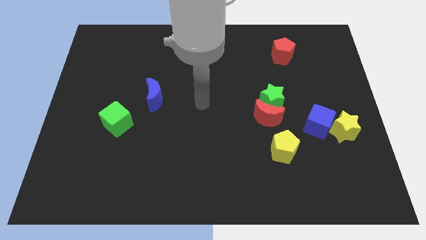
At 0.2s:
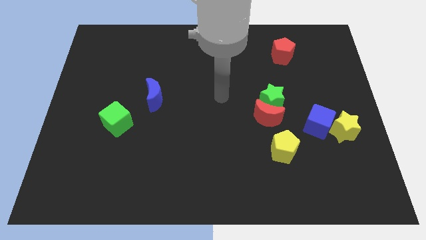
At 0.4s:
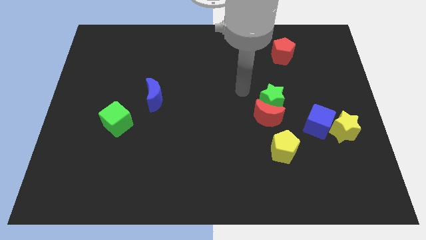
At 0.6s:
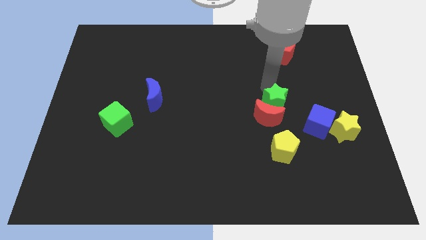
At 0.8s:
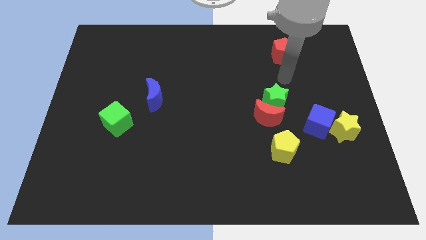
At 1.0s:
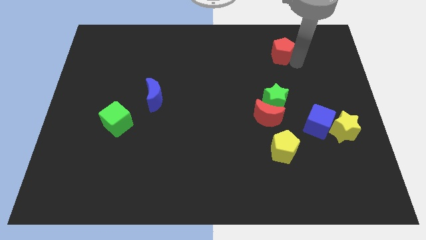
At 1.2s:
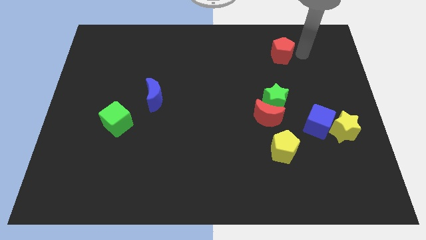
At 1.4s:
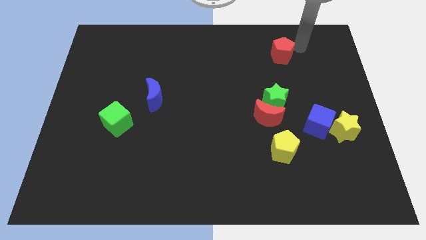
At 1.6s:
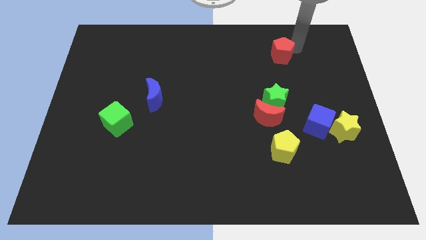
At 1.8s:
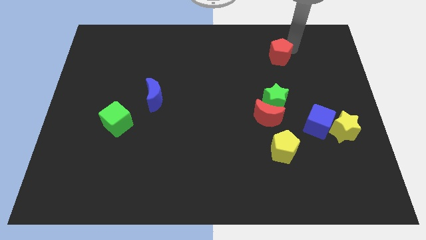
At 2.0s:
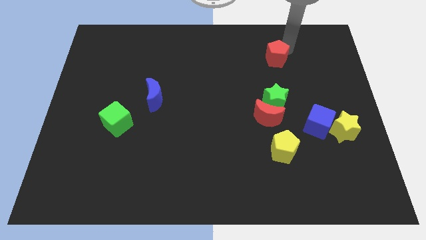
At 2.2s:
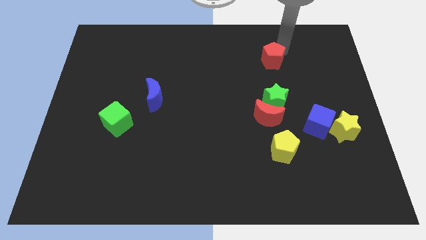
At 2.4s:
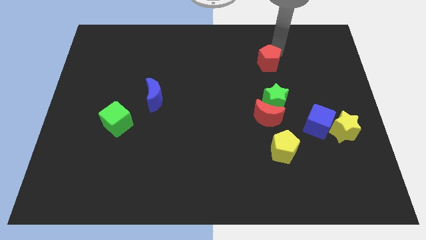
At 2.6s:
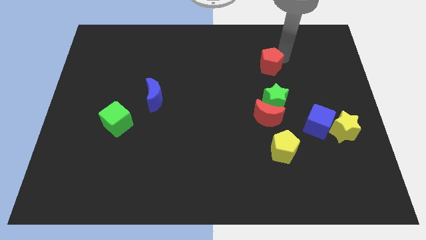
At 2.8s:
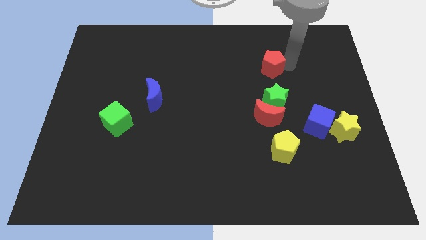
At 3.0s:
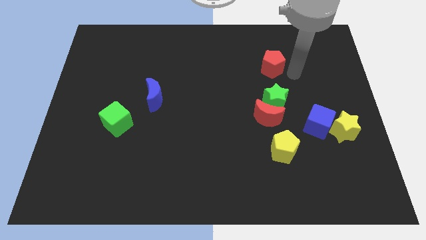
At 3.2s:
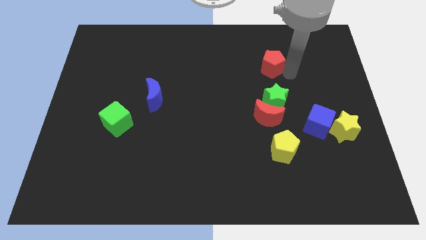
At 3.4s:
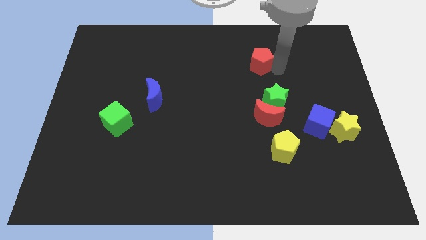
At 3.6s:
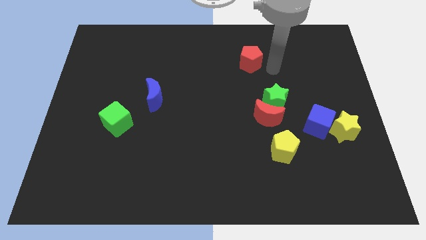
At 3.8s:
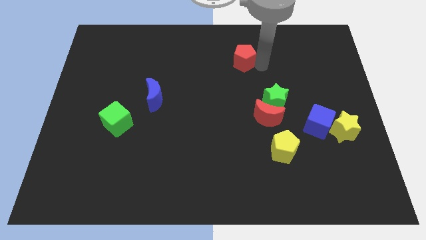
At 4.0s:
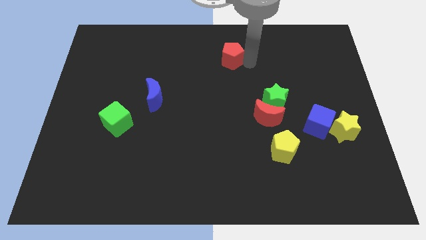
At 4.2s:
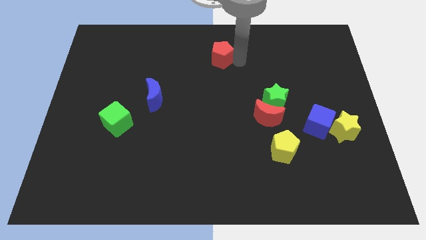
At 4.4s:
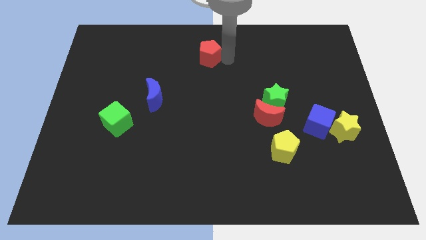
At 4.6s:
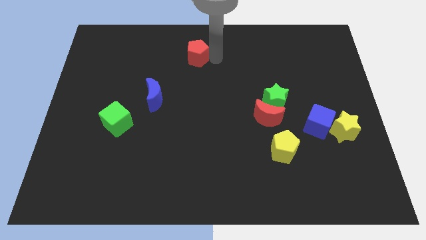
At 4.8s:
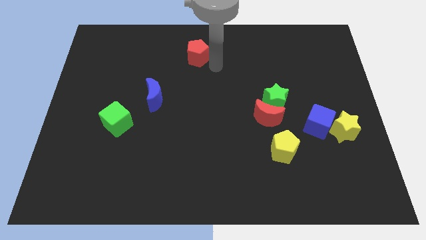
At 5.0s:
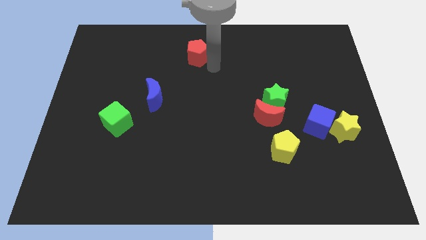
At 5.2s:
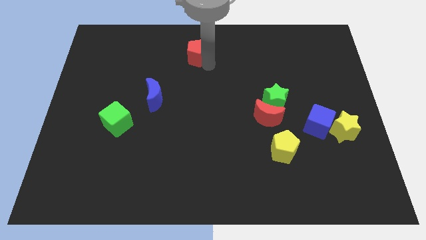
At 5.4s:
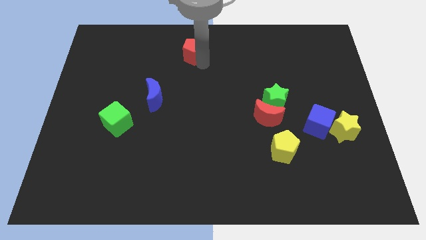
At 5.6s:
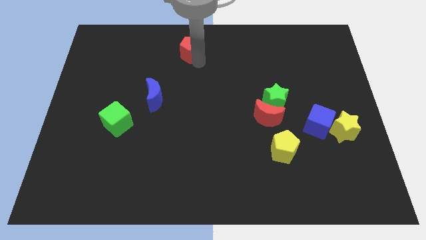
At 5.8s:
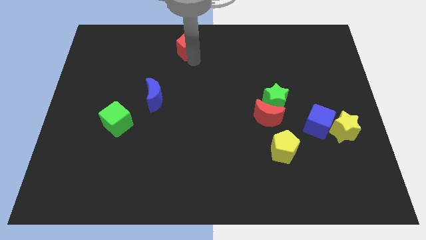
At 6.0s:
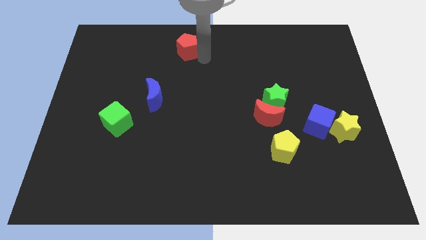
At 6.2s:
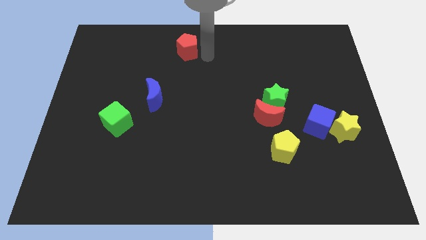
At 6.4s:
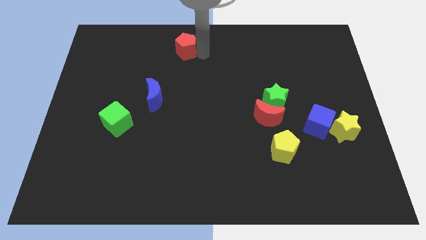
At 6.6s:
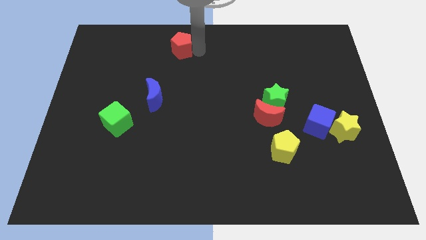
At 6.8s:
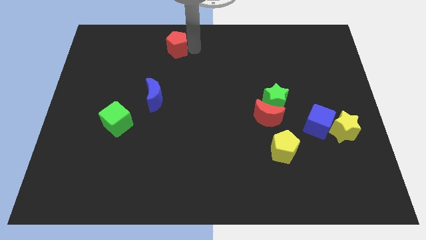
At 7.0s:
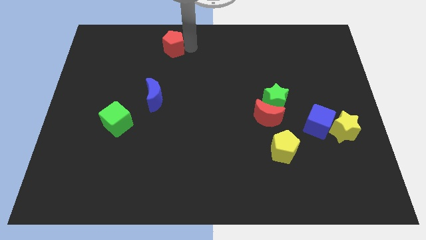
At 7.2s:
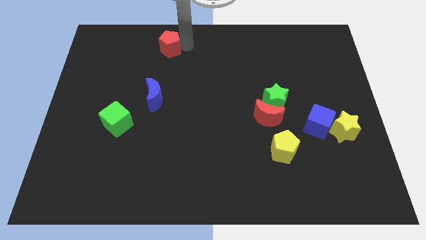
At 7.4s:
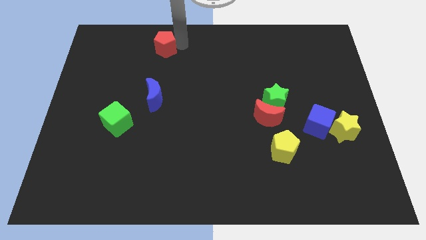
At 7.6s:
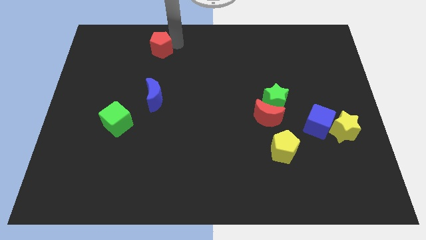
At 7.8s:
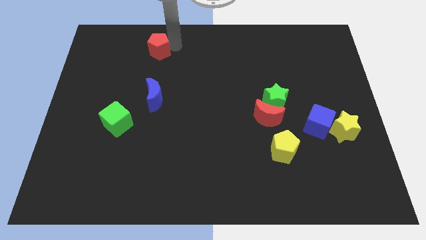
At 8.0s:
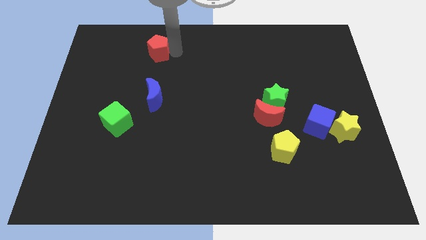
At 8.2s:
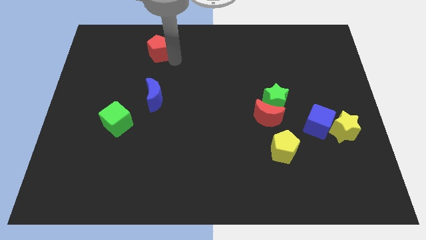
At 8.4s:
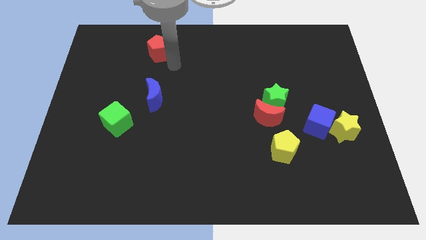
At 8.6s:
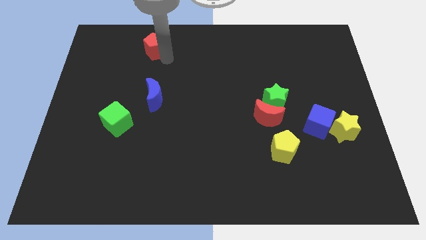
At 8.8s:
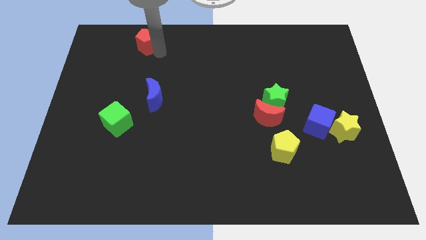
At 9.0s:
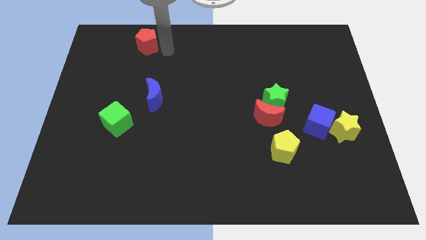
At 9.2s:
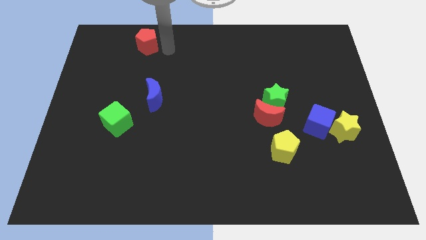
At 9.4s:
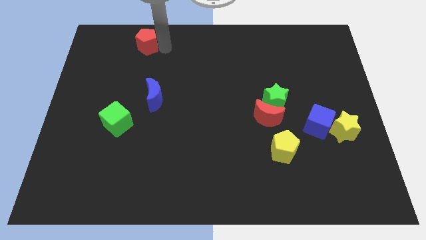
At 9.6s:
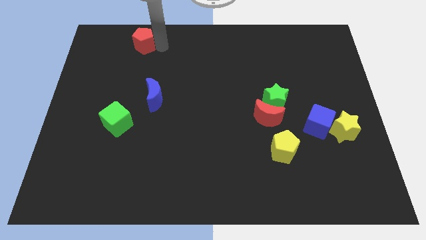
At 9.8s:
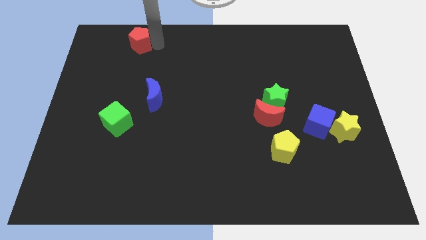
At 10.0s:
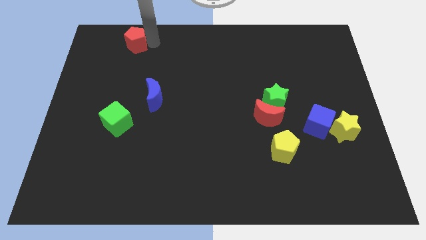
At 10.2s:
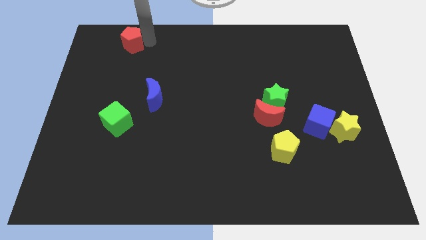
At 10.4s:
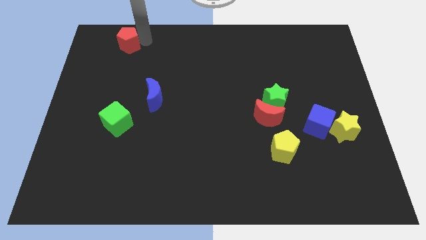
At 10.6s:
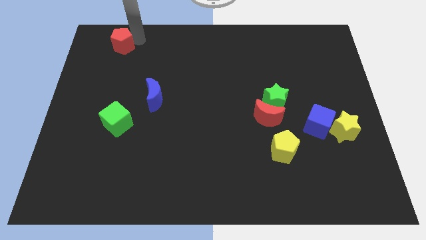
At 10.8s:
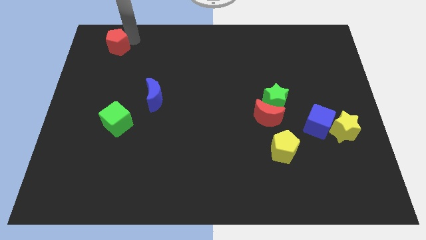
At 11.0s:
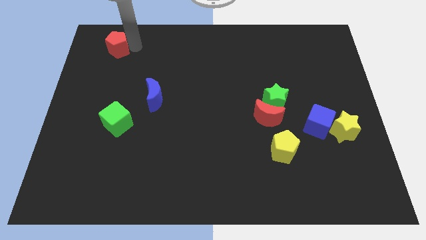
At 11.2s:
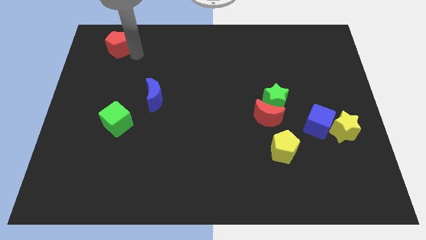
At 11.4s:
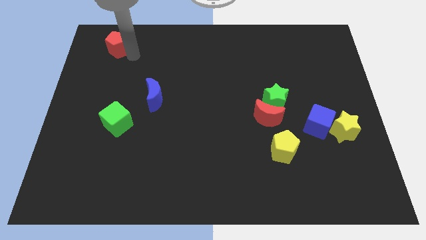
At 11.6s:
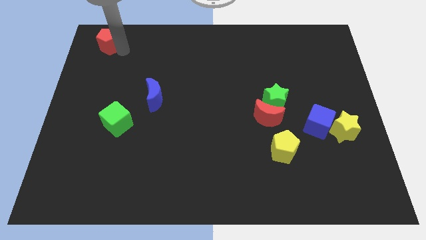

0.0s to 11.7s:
move the red pentagon to the top left

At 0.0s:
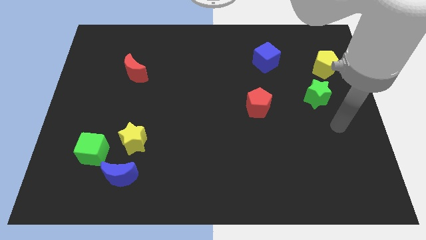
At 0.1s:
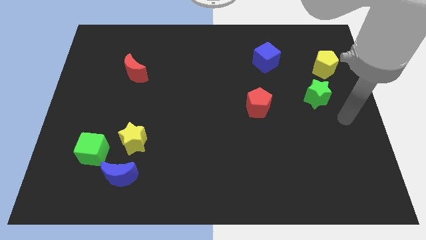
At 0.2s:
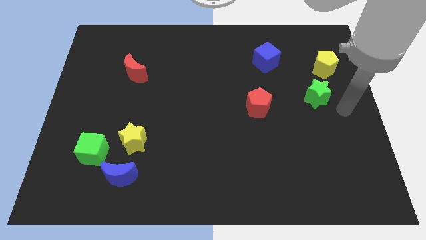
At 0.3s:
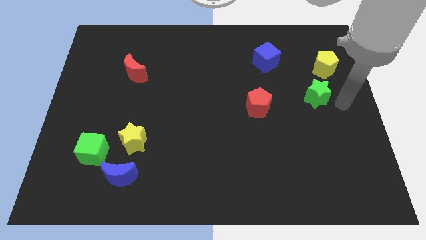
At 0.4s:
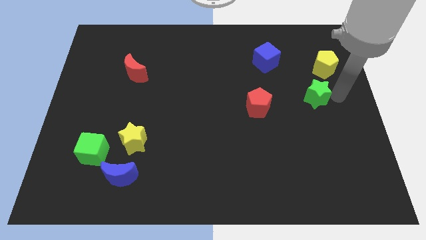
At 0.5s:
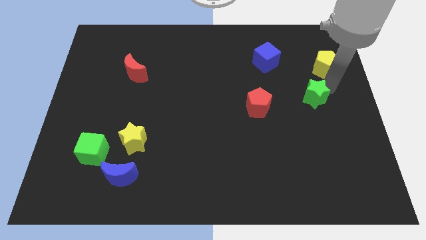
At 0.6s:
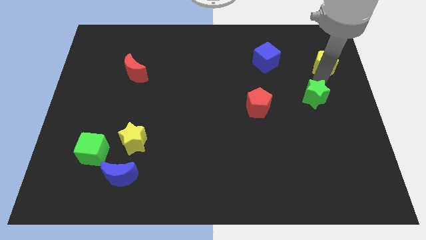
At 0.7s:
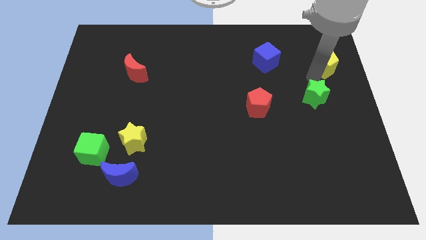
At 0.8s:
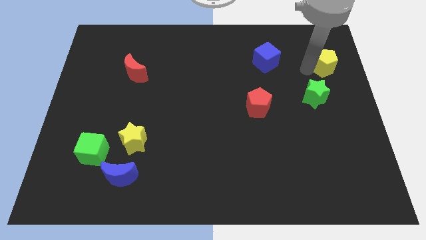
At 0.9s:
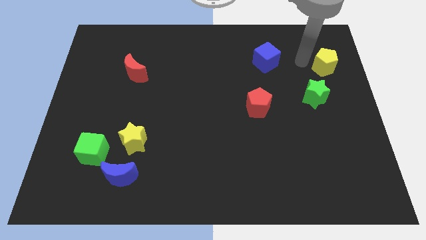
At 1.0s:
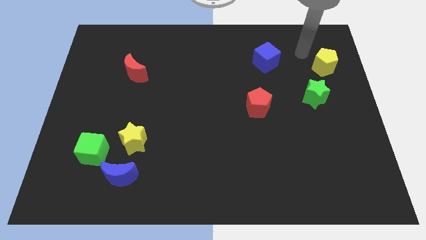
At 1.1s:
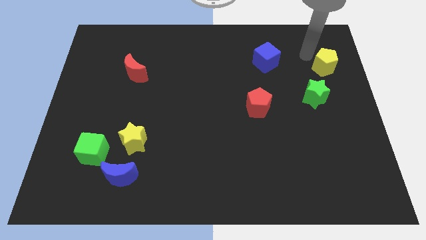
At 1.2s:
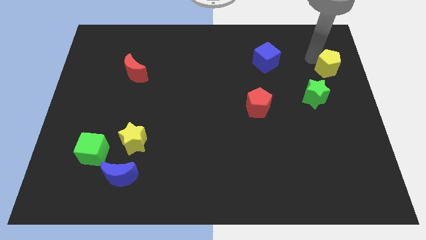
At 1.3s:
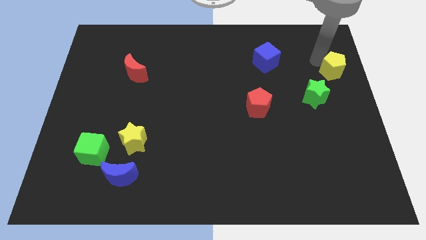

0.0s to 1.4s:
put the yellow pentagon to the right side
